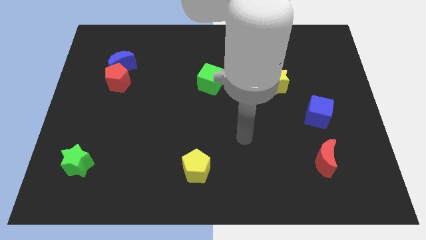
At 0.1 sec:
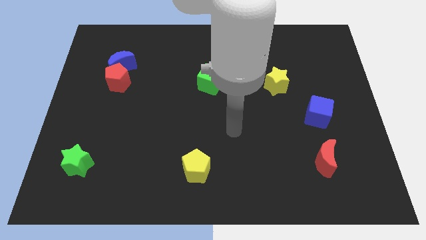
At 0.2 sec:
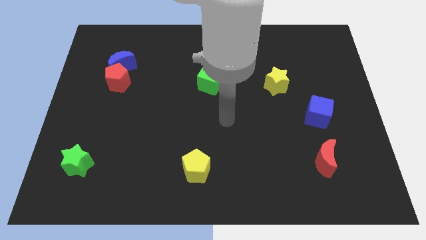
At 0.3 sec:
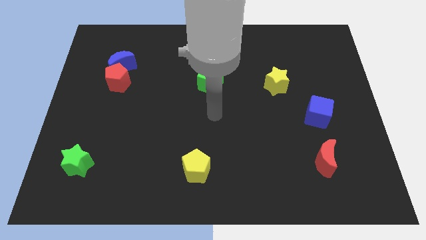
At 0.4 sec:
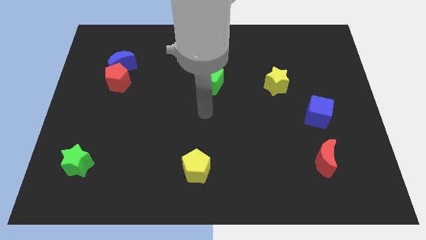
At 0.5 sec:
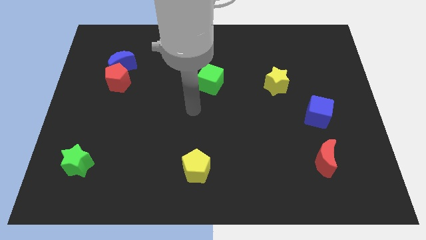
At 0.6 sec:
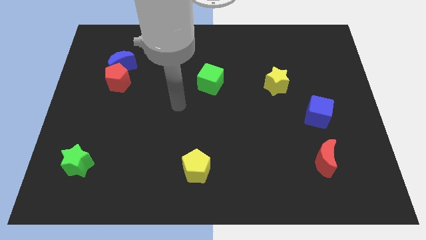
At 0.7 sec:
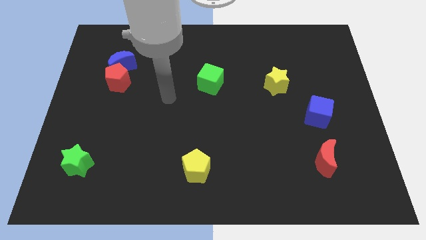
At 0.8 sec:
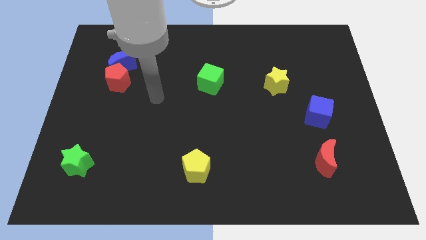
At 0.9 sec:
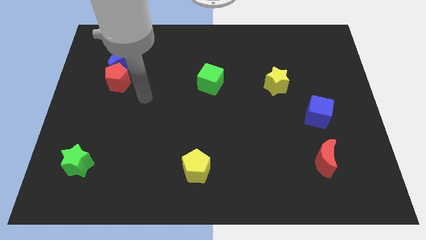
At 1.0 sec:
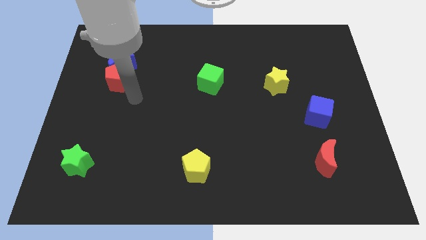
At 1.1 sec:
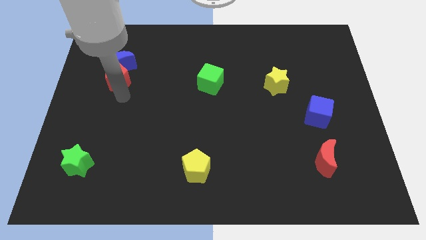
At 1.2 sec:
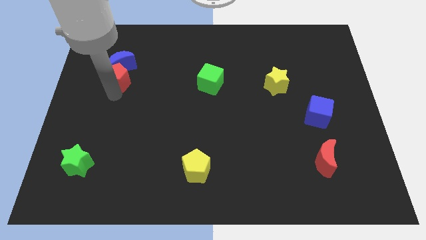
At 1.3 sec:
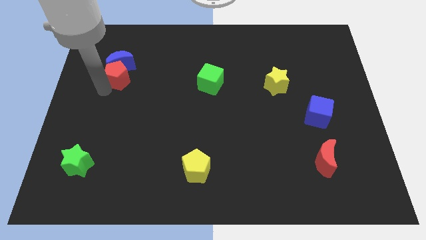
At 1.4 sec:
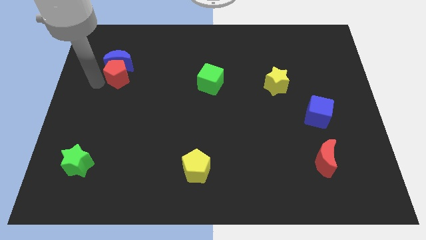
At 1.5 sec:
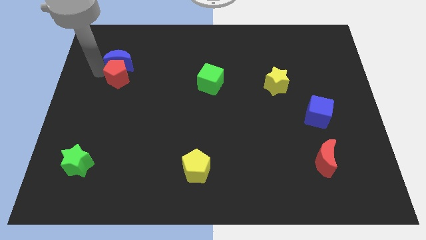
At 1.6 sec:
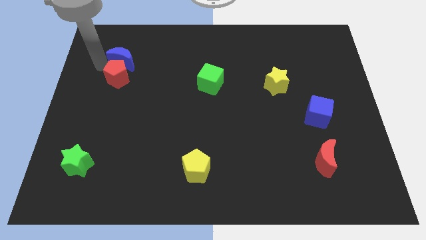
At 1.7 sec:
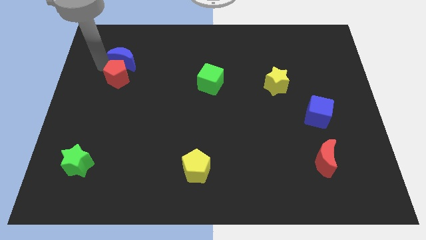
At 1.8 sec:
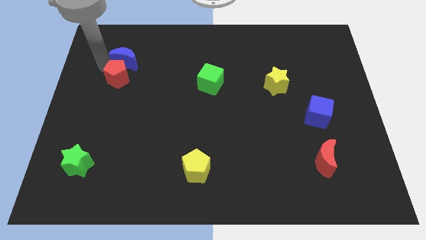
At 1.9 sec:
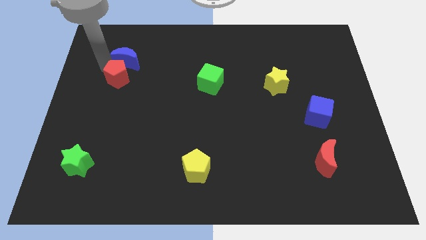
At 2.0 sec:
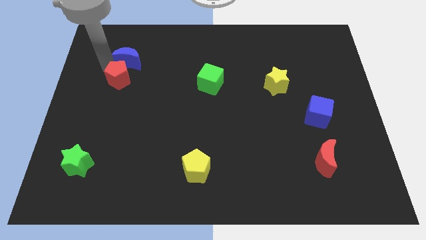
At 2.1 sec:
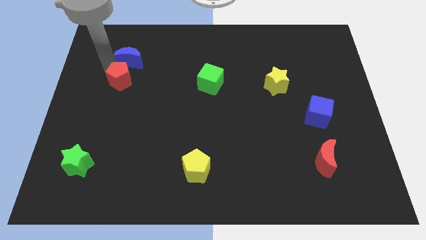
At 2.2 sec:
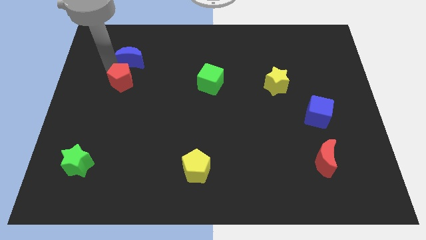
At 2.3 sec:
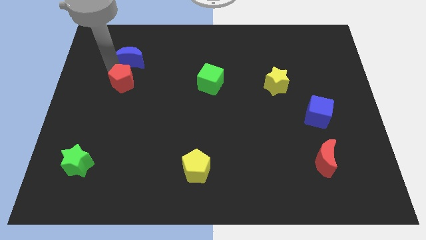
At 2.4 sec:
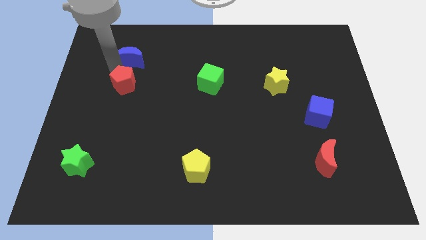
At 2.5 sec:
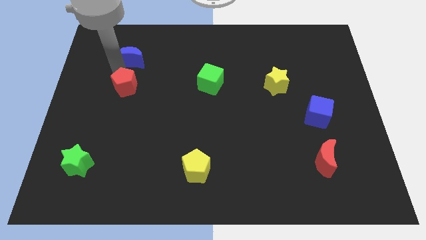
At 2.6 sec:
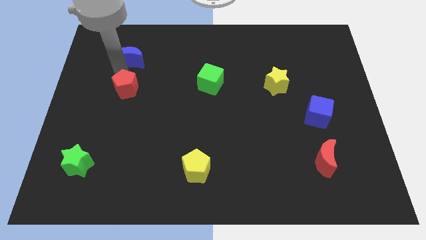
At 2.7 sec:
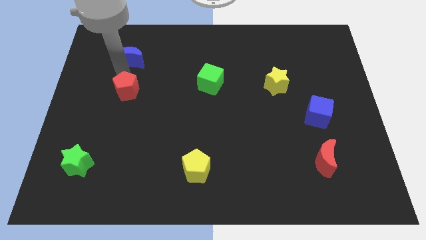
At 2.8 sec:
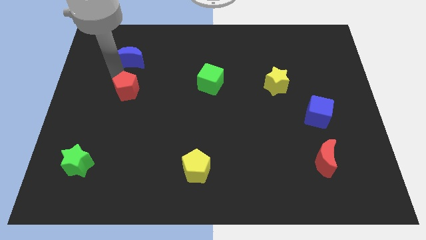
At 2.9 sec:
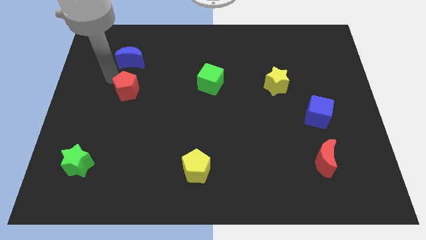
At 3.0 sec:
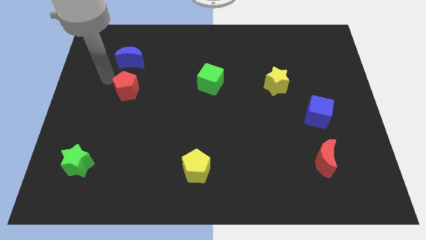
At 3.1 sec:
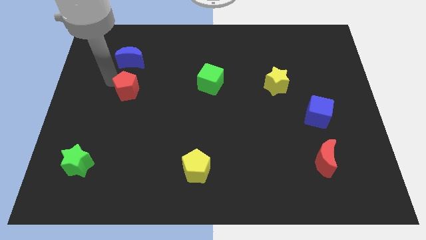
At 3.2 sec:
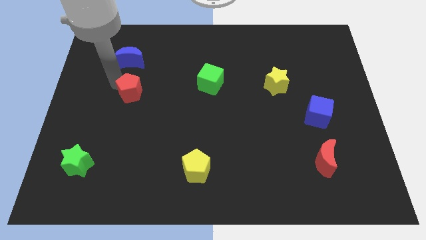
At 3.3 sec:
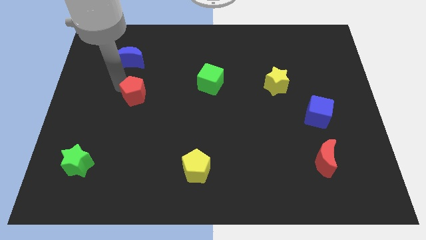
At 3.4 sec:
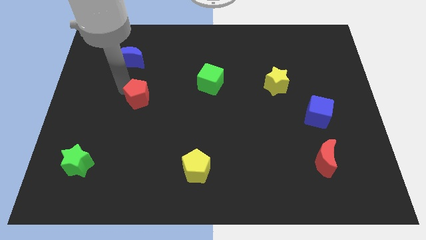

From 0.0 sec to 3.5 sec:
slightly move the red pentagon downwards and to the right

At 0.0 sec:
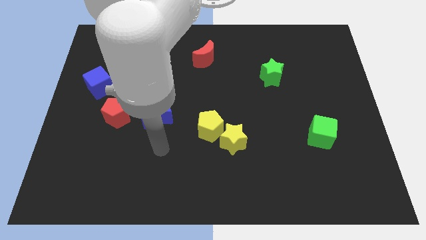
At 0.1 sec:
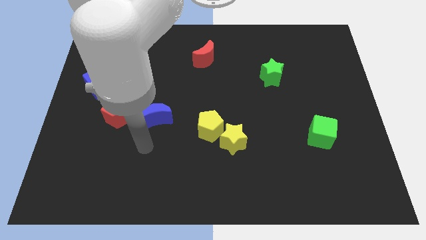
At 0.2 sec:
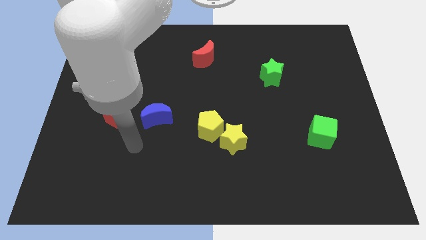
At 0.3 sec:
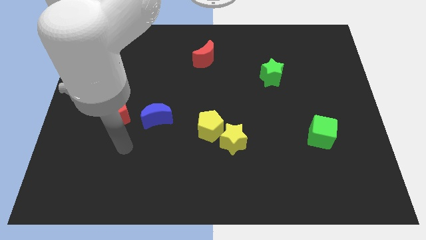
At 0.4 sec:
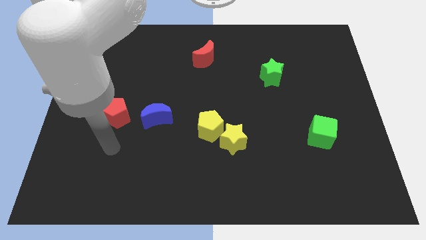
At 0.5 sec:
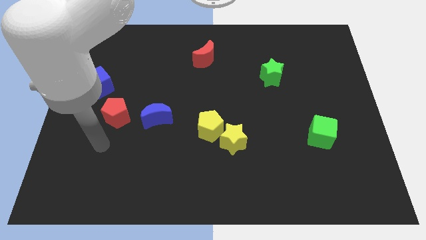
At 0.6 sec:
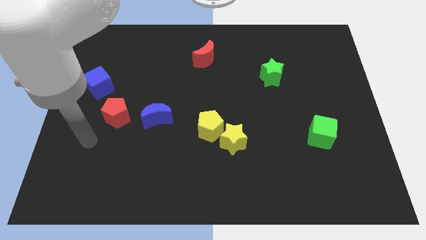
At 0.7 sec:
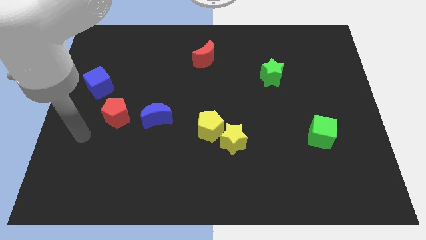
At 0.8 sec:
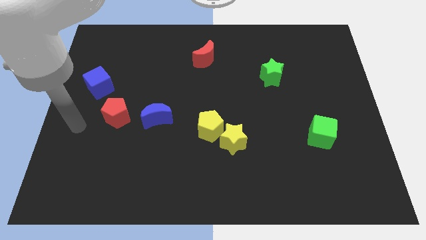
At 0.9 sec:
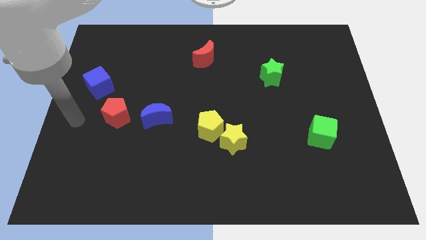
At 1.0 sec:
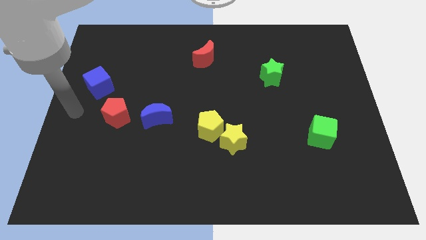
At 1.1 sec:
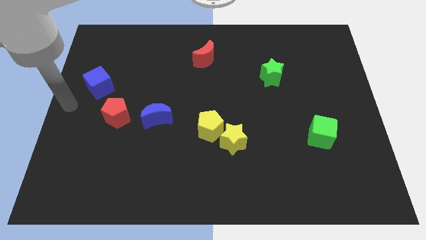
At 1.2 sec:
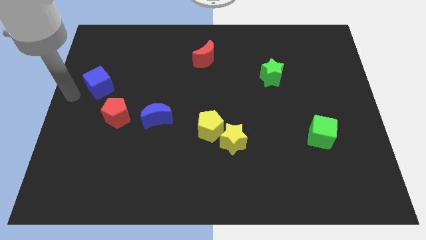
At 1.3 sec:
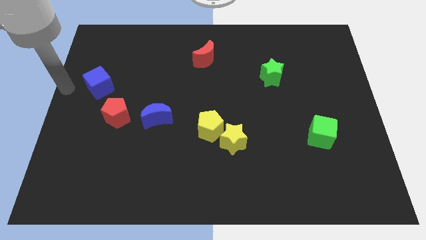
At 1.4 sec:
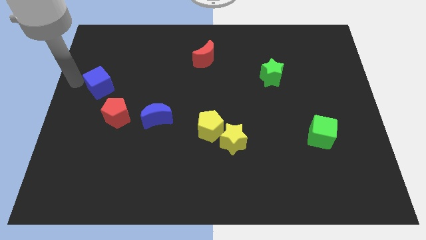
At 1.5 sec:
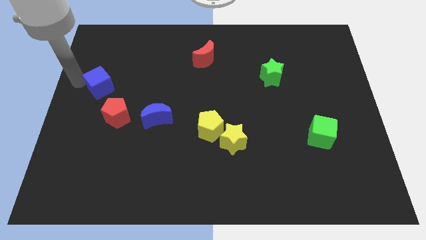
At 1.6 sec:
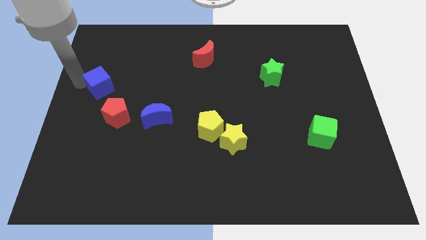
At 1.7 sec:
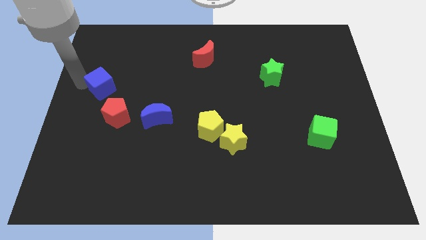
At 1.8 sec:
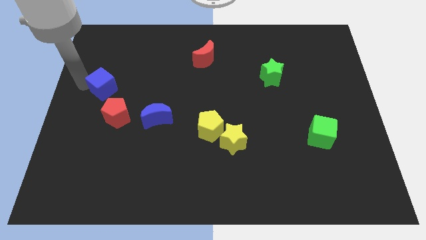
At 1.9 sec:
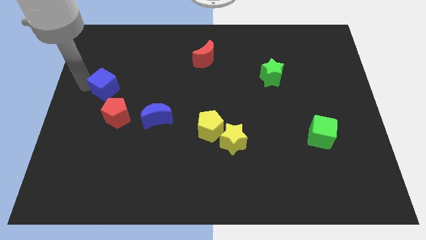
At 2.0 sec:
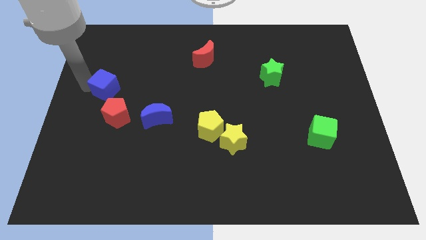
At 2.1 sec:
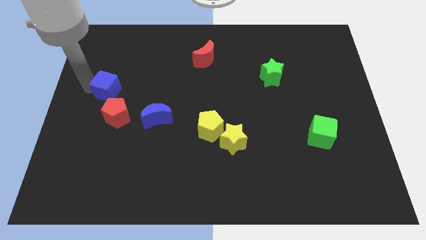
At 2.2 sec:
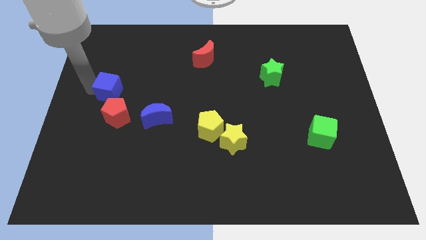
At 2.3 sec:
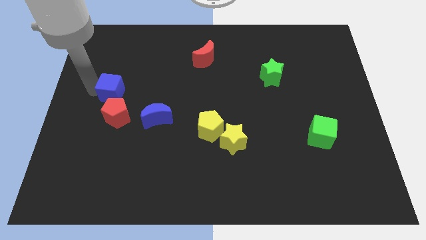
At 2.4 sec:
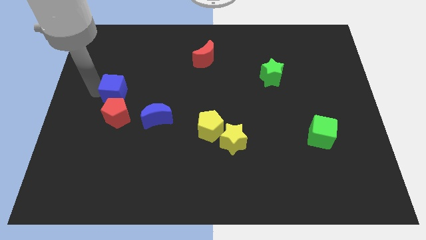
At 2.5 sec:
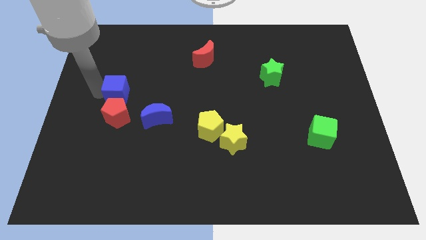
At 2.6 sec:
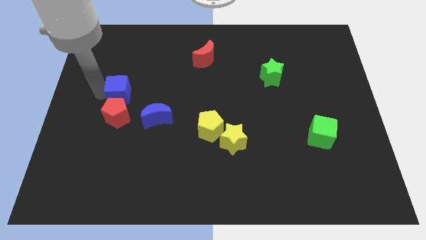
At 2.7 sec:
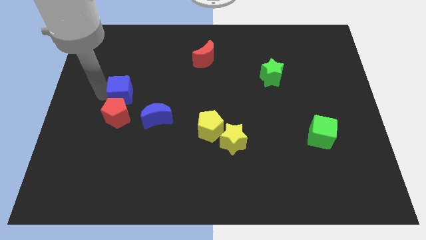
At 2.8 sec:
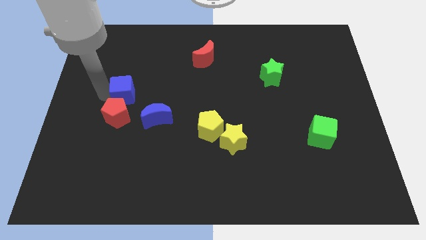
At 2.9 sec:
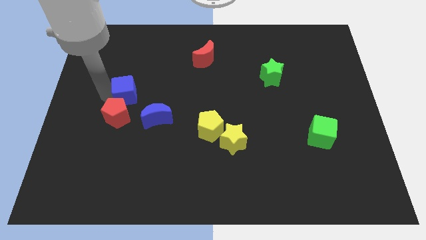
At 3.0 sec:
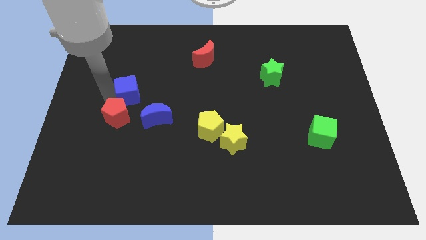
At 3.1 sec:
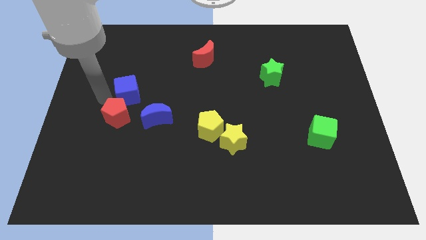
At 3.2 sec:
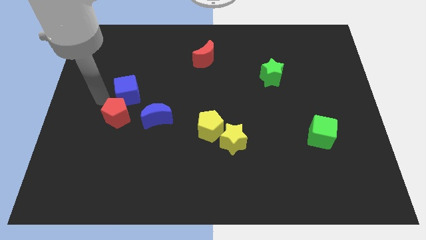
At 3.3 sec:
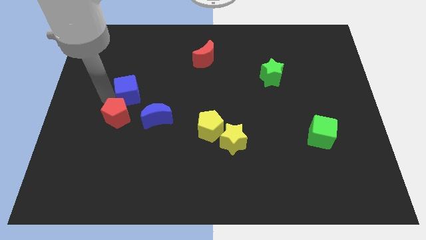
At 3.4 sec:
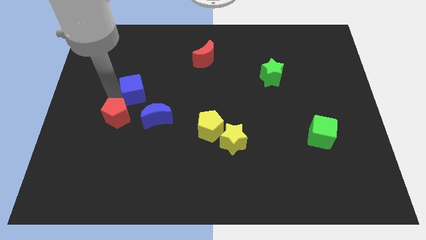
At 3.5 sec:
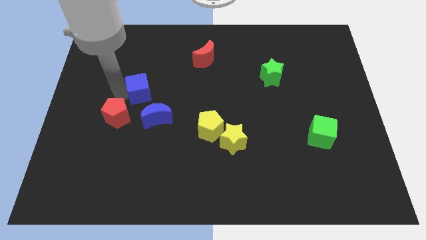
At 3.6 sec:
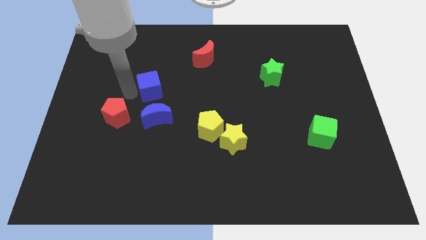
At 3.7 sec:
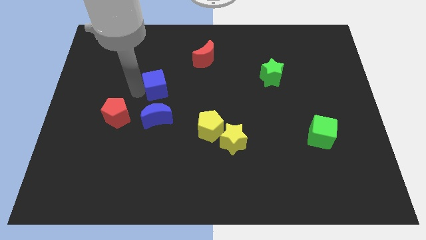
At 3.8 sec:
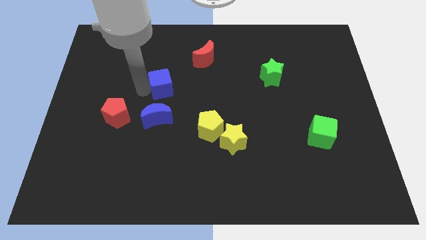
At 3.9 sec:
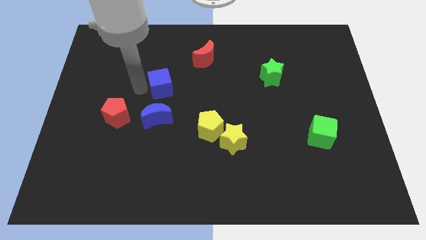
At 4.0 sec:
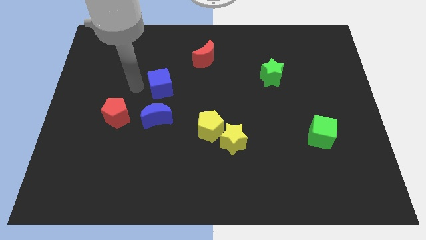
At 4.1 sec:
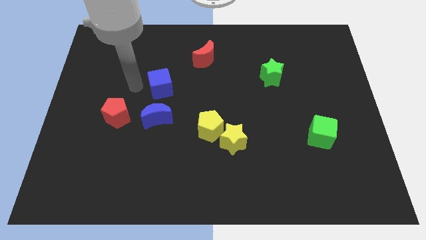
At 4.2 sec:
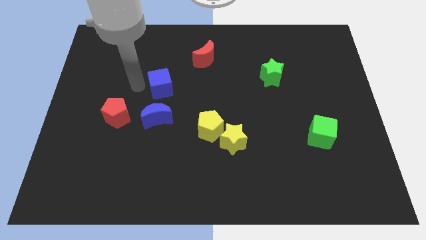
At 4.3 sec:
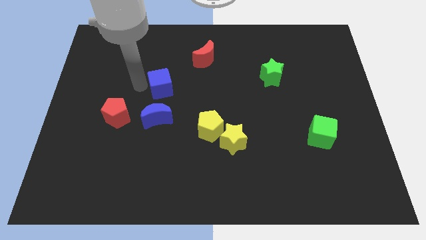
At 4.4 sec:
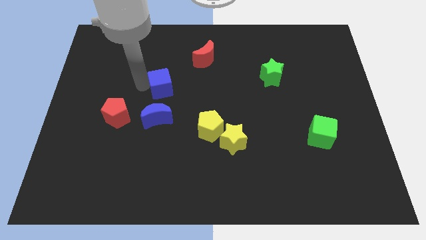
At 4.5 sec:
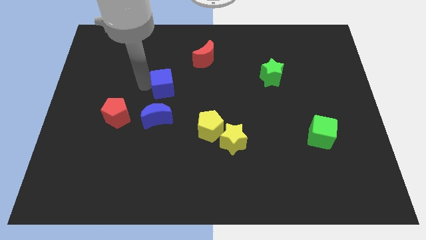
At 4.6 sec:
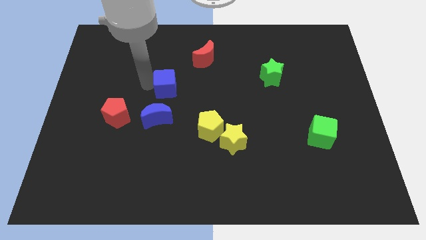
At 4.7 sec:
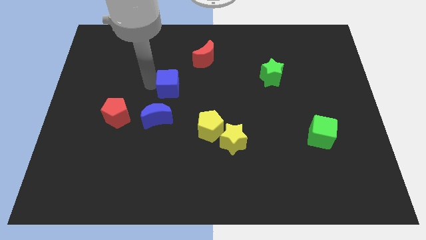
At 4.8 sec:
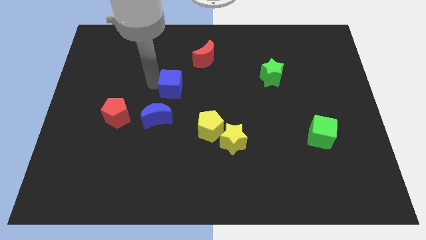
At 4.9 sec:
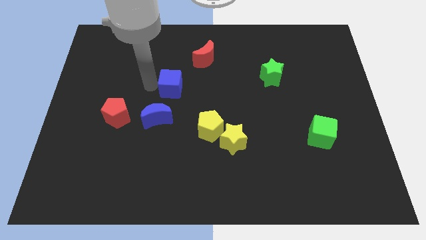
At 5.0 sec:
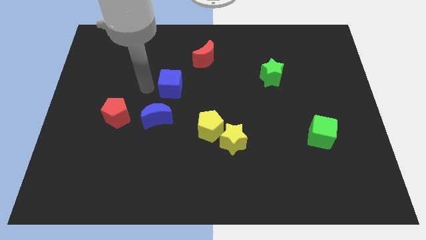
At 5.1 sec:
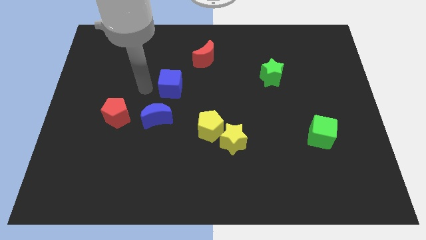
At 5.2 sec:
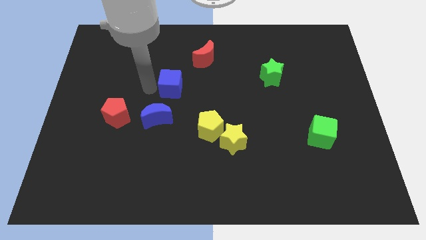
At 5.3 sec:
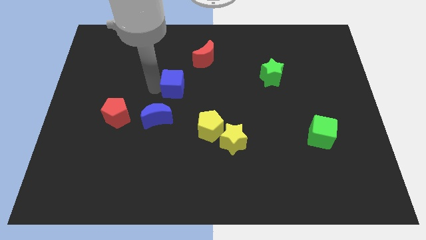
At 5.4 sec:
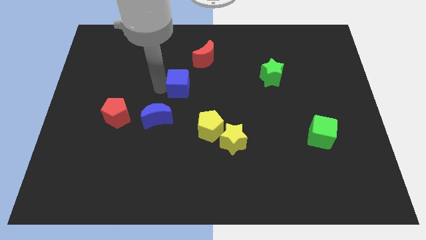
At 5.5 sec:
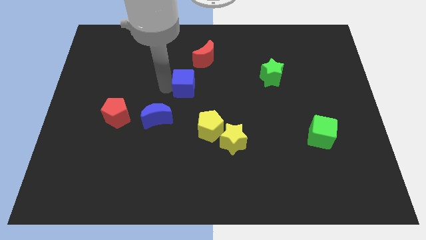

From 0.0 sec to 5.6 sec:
slide the blue cube to the right
